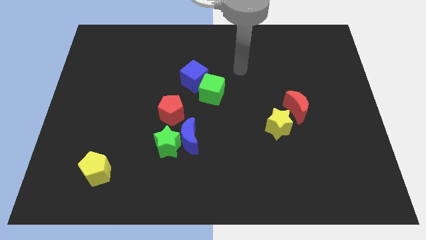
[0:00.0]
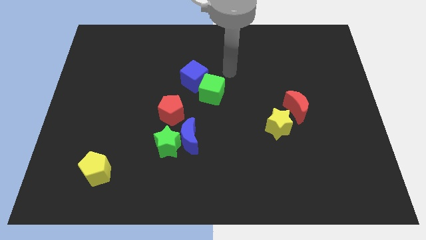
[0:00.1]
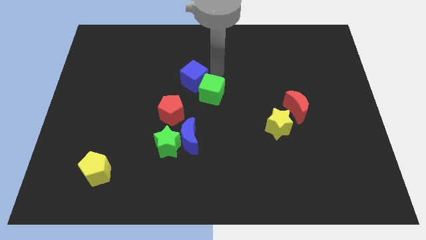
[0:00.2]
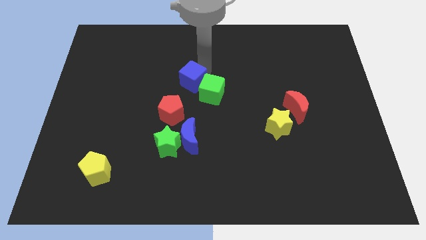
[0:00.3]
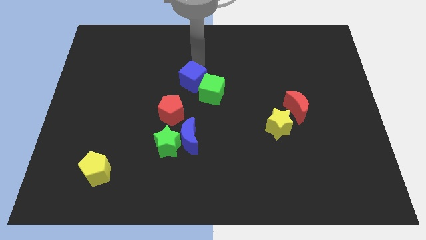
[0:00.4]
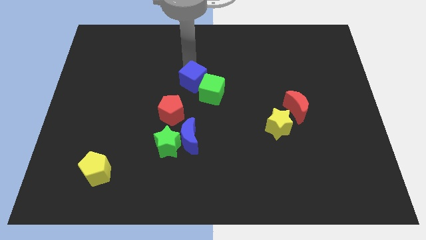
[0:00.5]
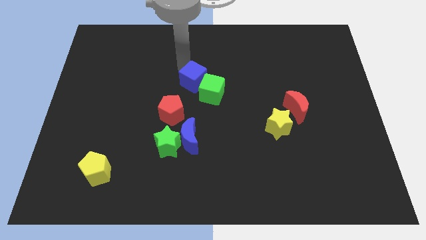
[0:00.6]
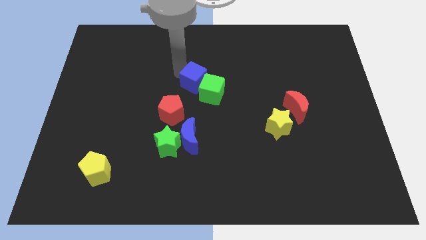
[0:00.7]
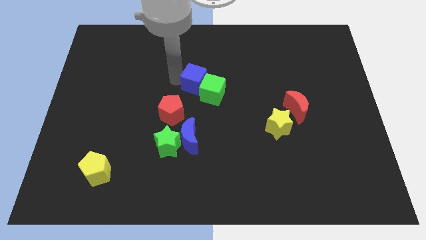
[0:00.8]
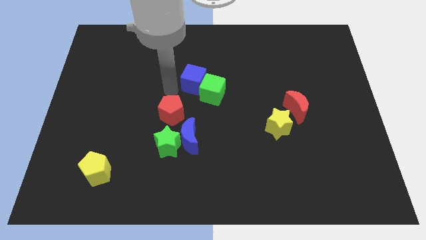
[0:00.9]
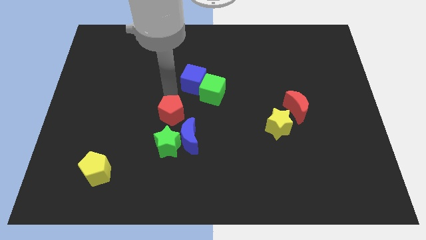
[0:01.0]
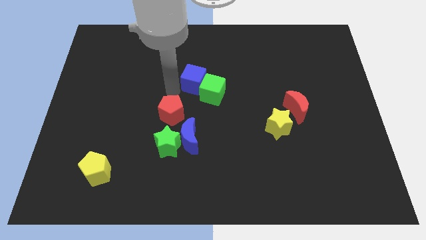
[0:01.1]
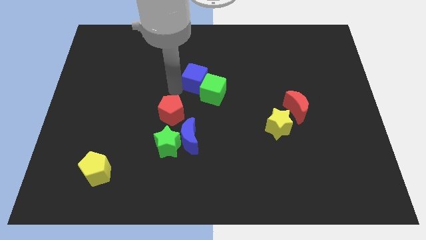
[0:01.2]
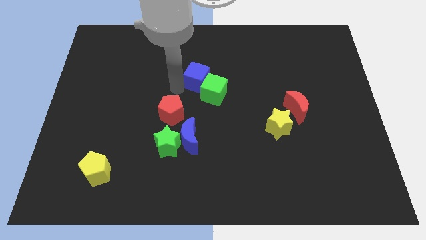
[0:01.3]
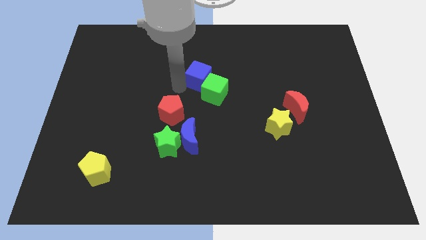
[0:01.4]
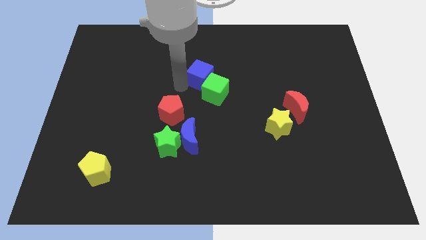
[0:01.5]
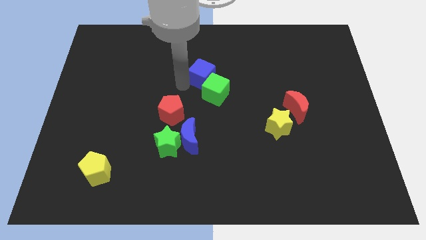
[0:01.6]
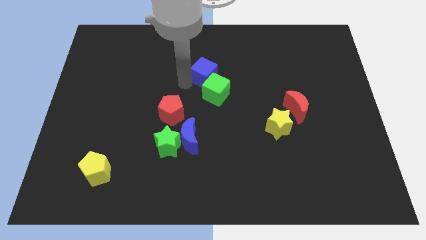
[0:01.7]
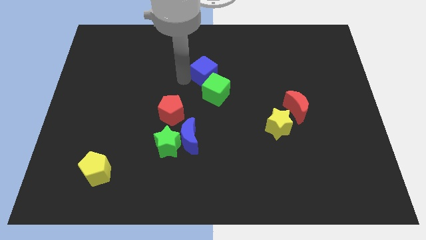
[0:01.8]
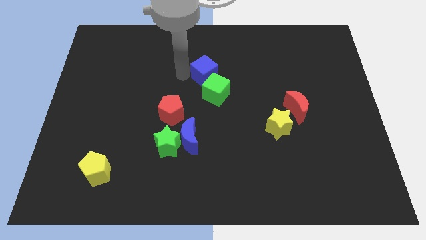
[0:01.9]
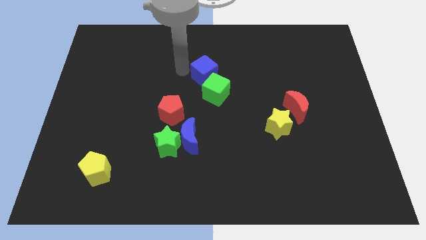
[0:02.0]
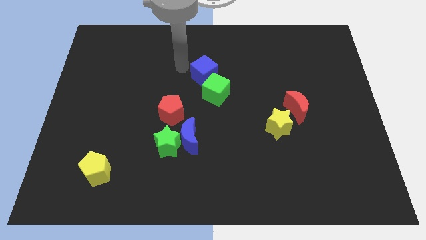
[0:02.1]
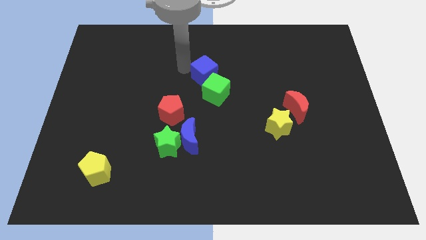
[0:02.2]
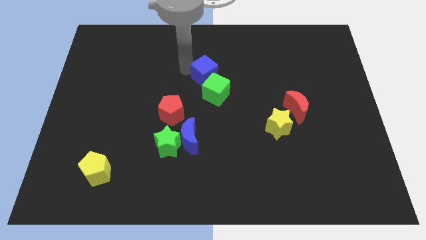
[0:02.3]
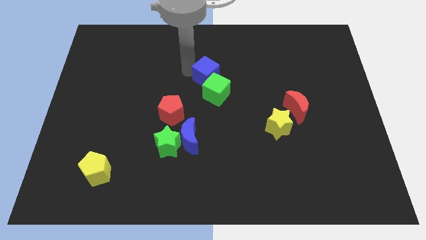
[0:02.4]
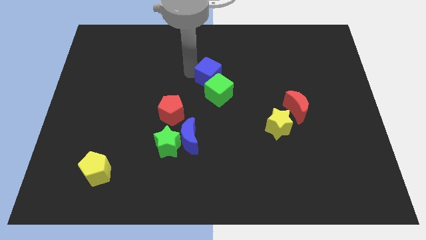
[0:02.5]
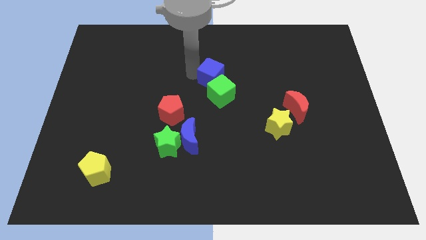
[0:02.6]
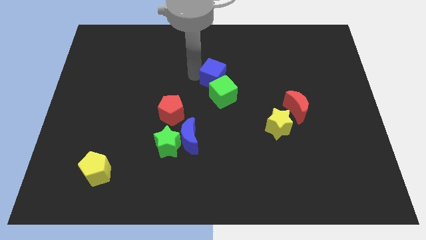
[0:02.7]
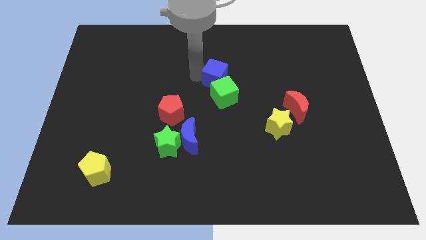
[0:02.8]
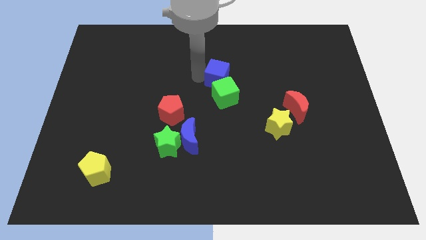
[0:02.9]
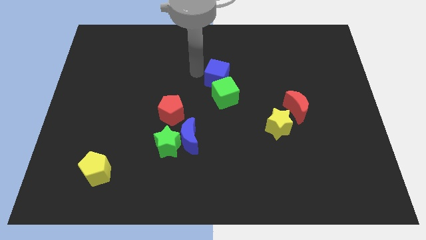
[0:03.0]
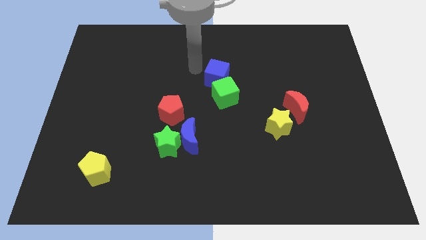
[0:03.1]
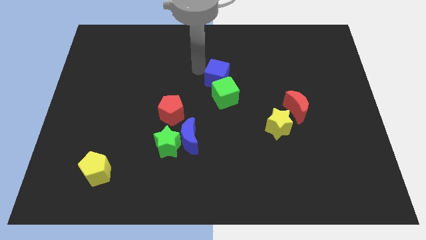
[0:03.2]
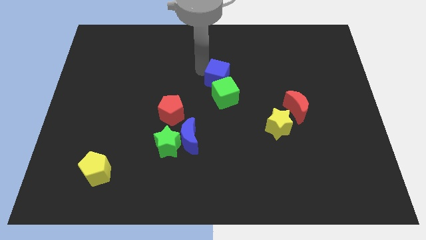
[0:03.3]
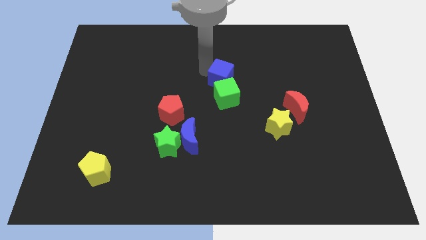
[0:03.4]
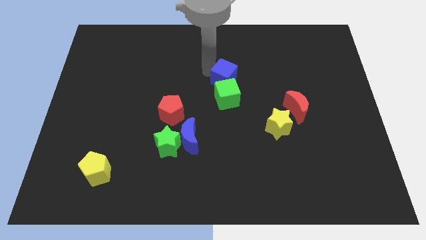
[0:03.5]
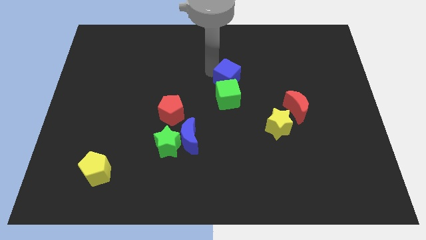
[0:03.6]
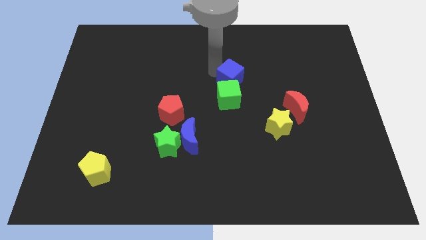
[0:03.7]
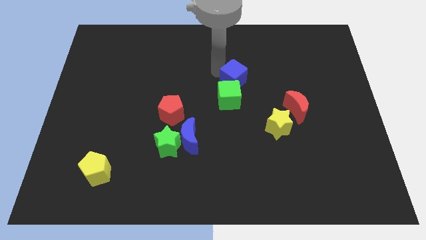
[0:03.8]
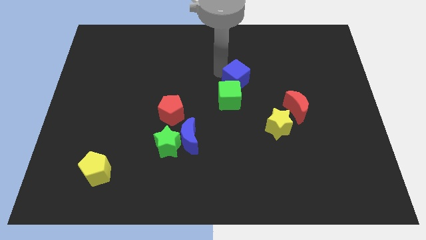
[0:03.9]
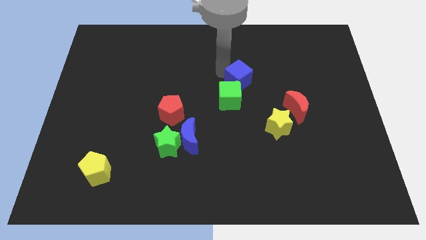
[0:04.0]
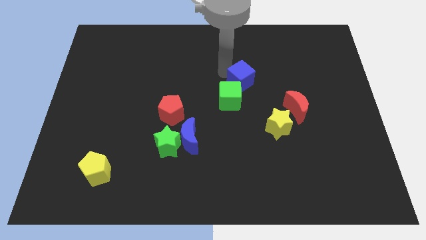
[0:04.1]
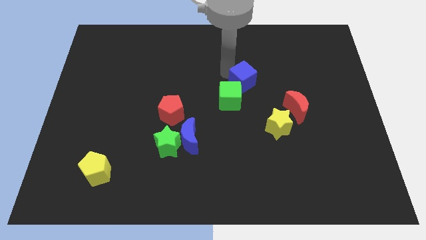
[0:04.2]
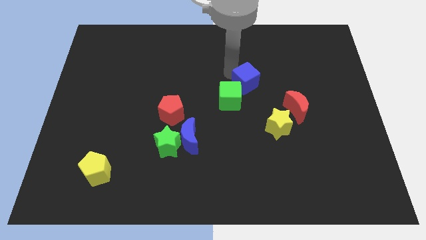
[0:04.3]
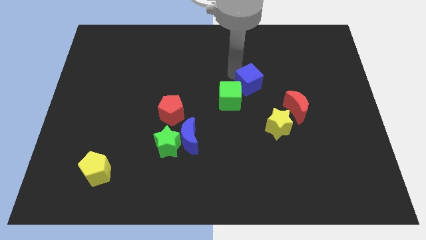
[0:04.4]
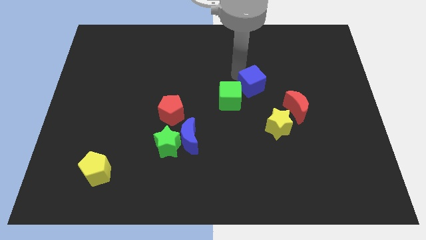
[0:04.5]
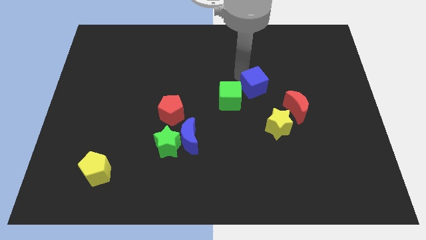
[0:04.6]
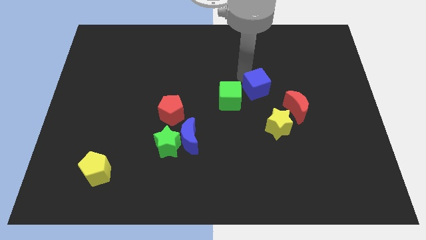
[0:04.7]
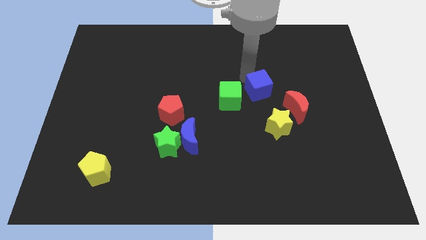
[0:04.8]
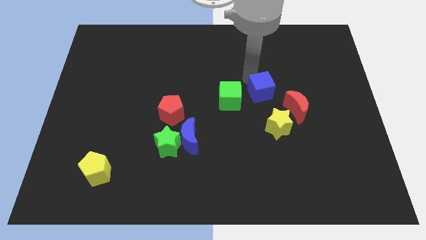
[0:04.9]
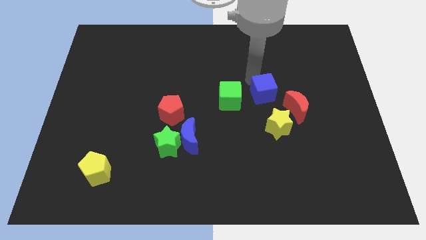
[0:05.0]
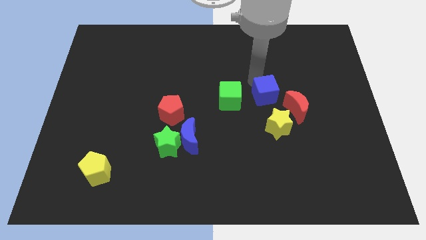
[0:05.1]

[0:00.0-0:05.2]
put the blue cube to the left side of the red moon

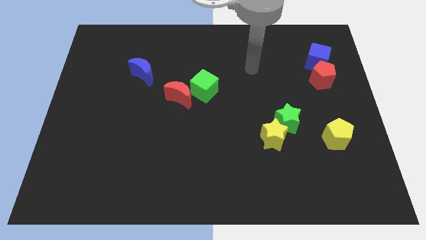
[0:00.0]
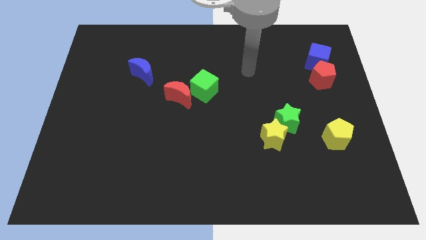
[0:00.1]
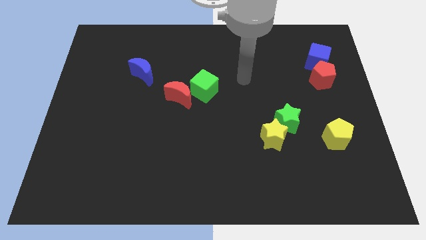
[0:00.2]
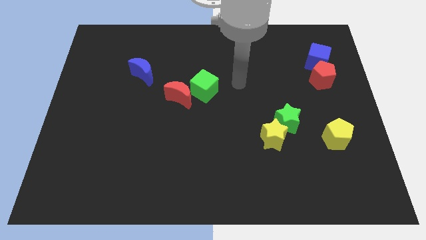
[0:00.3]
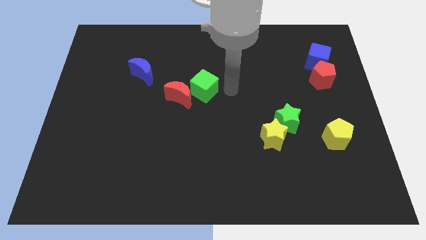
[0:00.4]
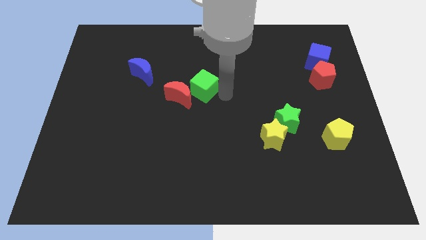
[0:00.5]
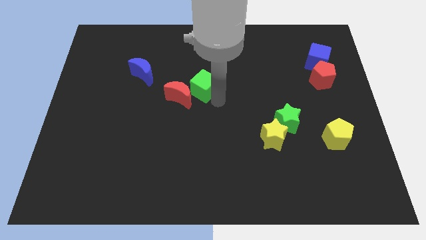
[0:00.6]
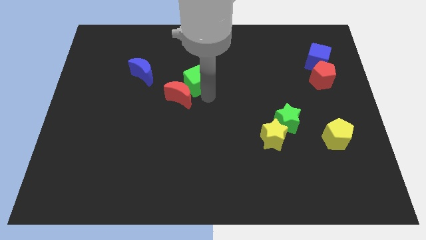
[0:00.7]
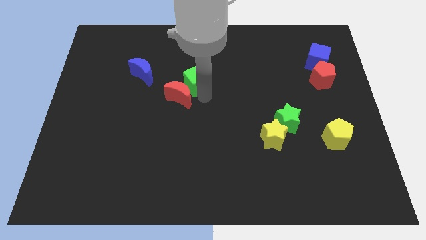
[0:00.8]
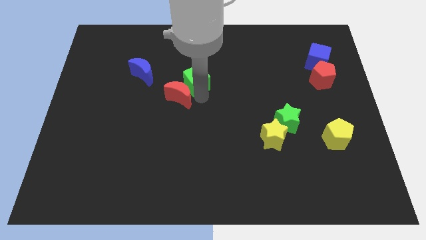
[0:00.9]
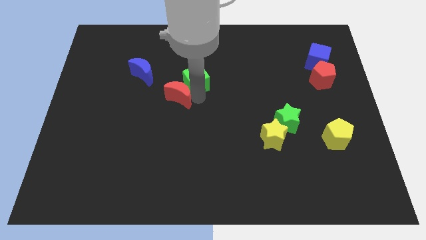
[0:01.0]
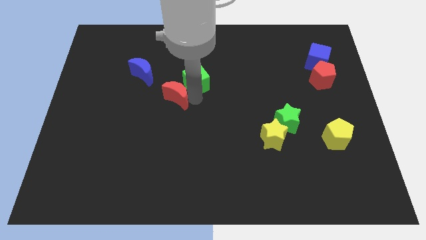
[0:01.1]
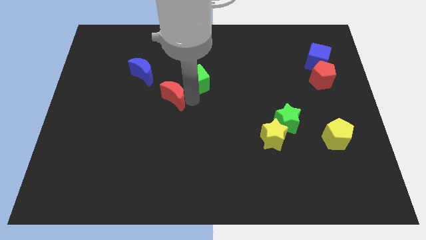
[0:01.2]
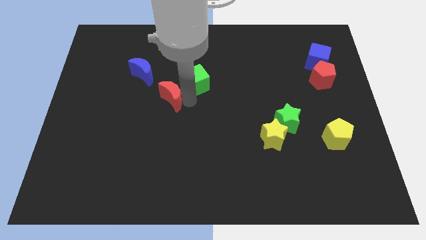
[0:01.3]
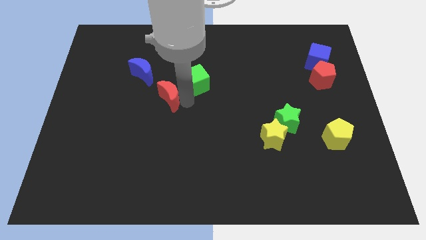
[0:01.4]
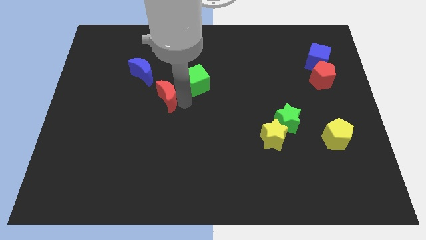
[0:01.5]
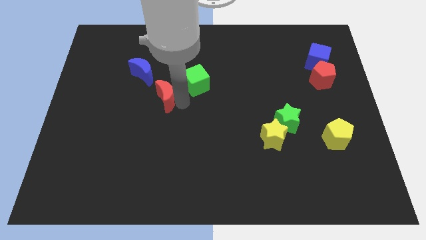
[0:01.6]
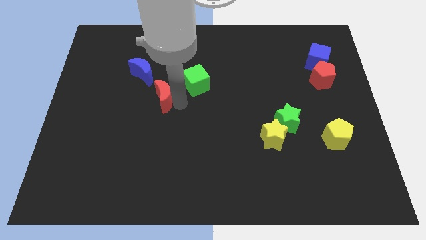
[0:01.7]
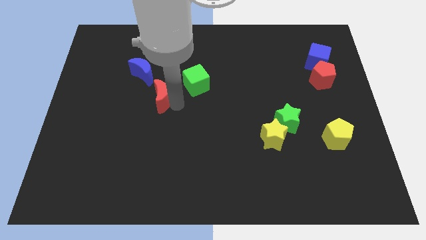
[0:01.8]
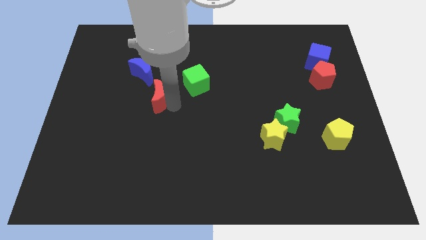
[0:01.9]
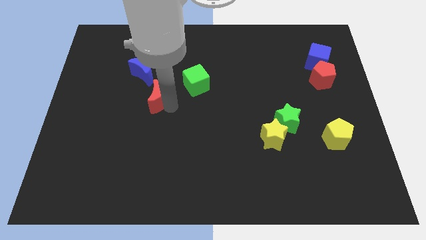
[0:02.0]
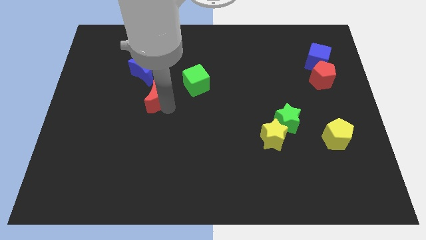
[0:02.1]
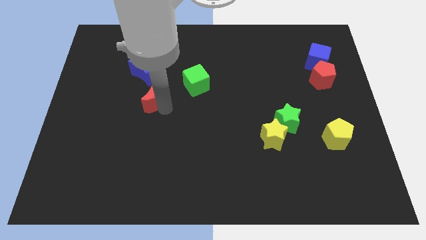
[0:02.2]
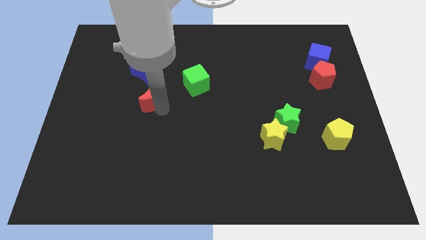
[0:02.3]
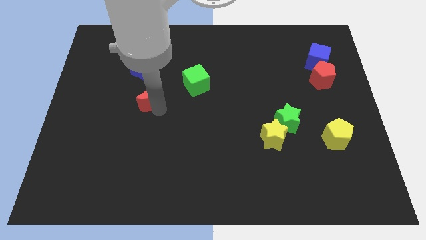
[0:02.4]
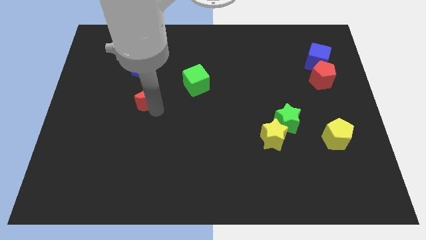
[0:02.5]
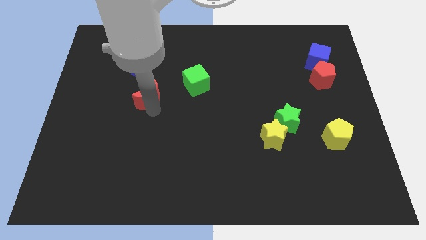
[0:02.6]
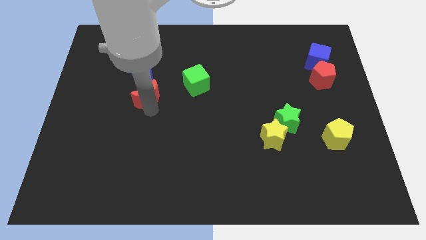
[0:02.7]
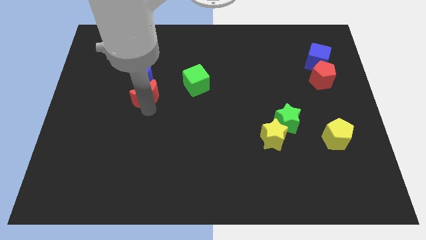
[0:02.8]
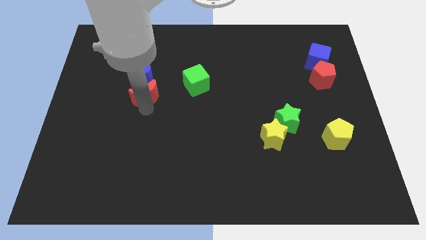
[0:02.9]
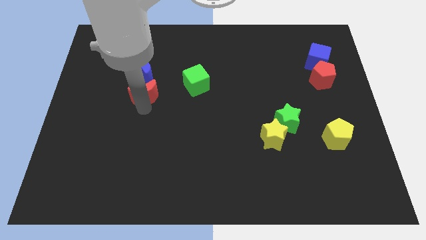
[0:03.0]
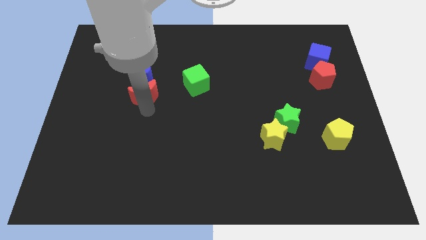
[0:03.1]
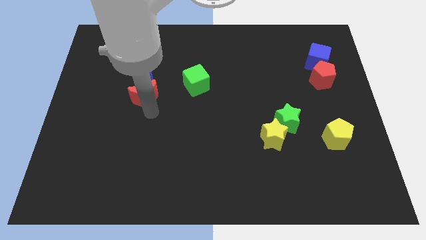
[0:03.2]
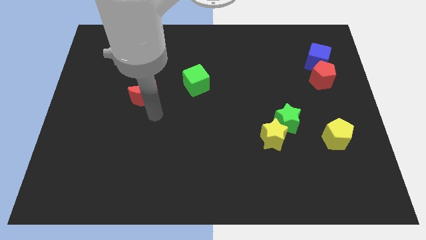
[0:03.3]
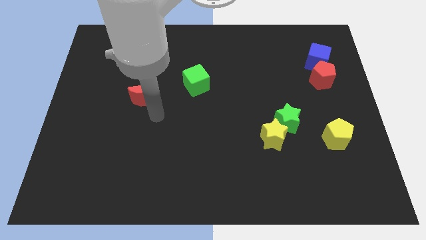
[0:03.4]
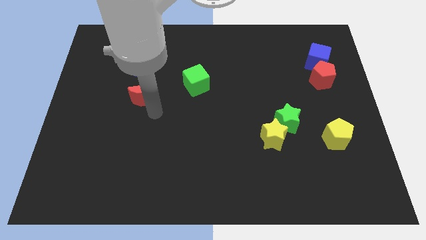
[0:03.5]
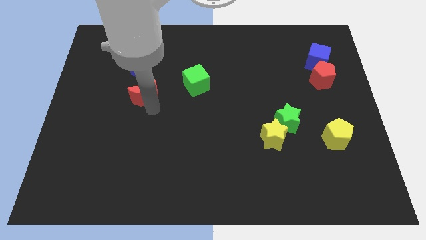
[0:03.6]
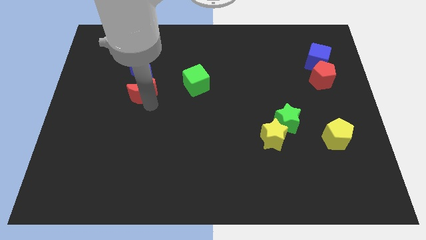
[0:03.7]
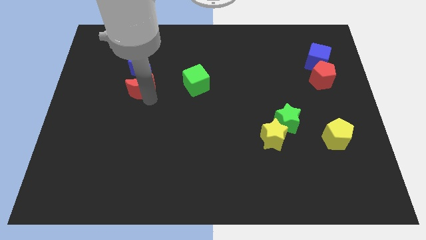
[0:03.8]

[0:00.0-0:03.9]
move the red moon diagonally down and to the left of the blue moon
